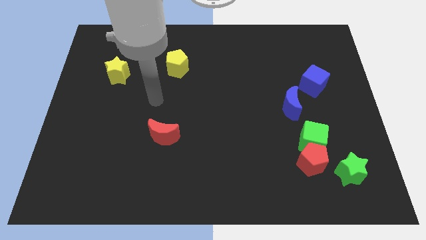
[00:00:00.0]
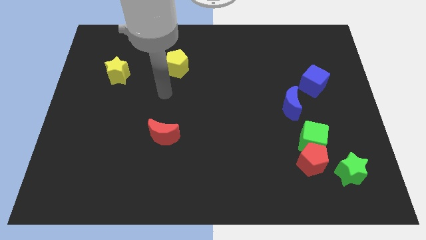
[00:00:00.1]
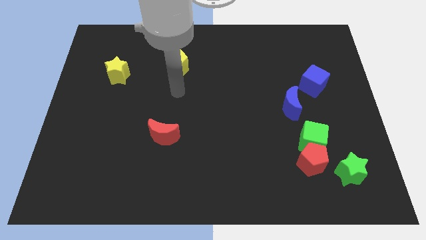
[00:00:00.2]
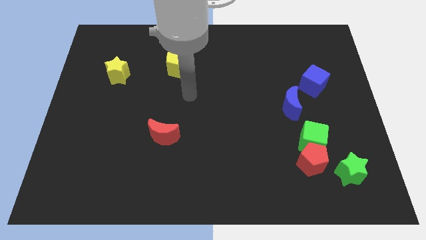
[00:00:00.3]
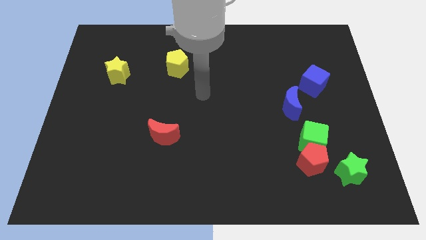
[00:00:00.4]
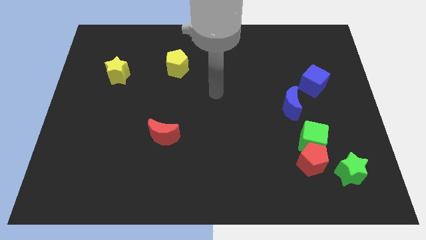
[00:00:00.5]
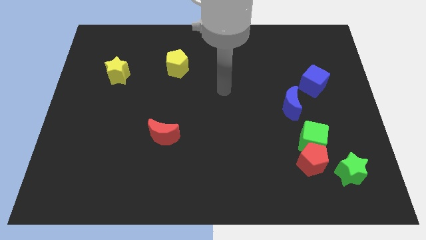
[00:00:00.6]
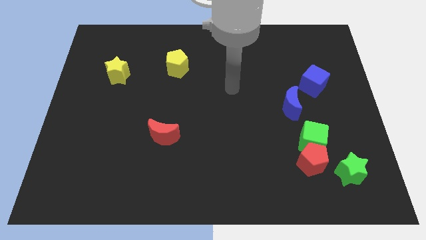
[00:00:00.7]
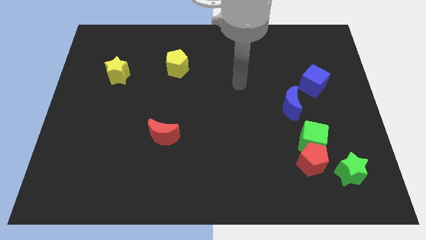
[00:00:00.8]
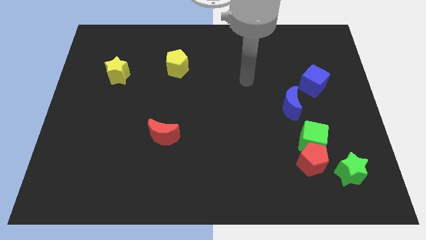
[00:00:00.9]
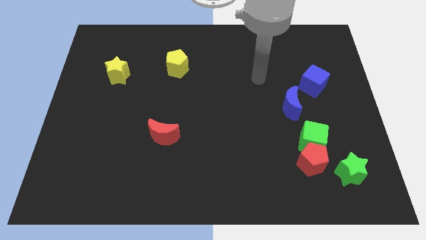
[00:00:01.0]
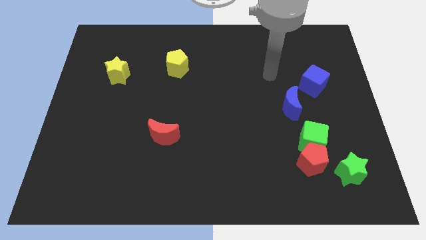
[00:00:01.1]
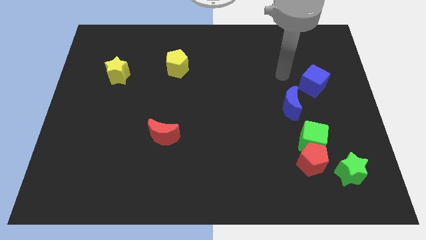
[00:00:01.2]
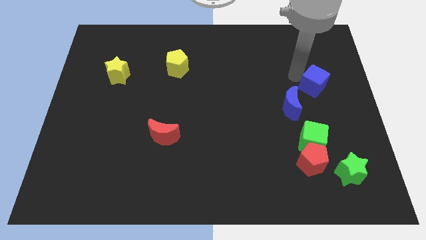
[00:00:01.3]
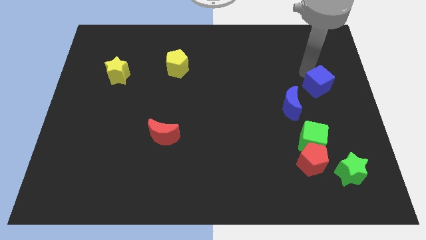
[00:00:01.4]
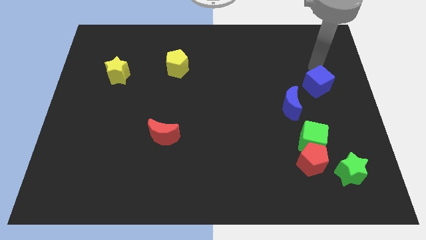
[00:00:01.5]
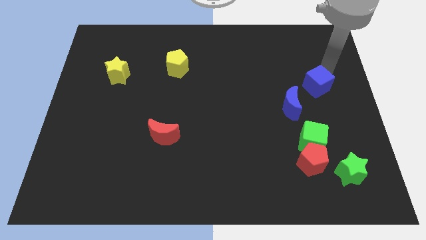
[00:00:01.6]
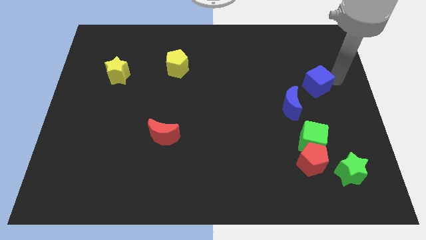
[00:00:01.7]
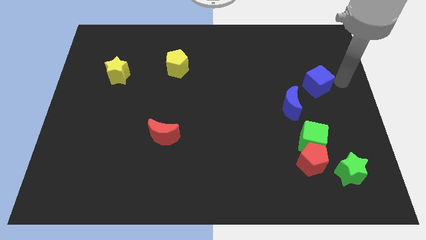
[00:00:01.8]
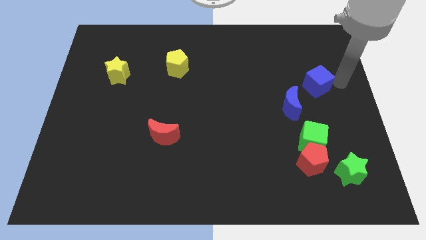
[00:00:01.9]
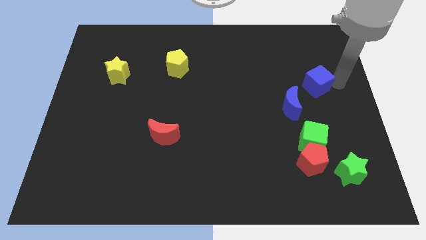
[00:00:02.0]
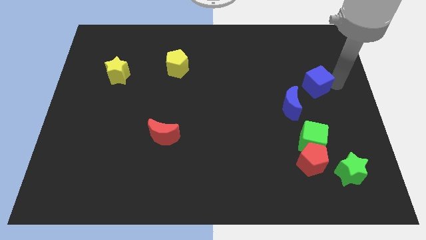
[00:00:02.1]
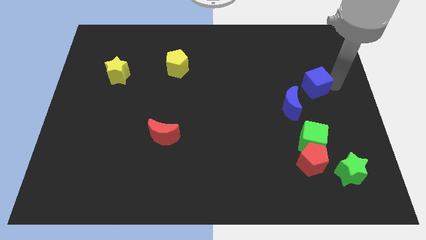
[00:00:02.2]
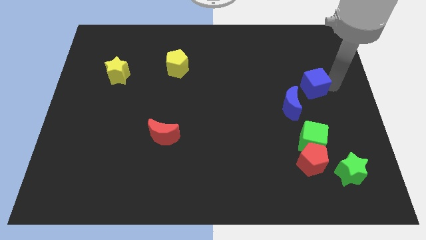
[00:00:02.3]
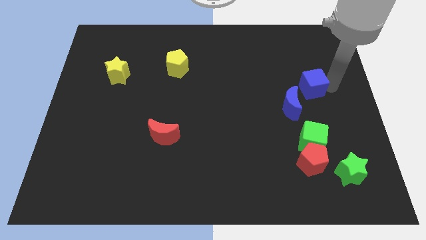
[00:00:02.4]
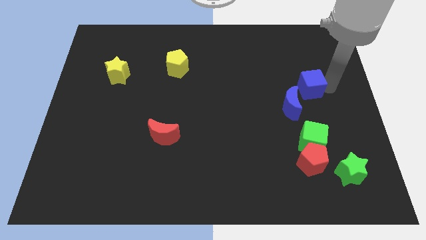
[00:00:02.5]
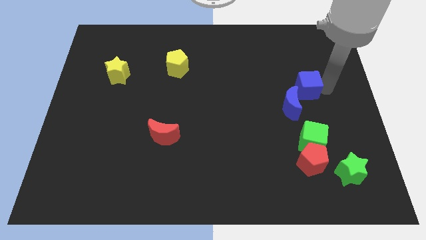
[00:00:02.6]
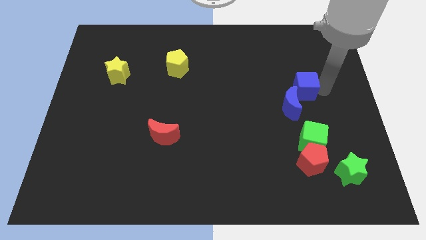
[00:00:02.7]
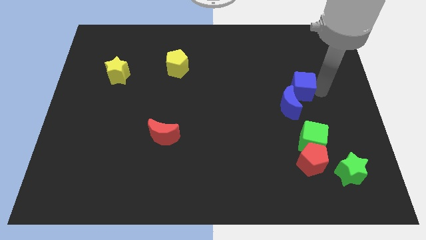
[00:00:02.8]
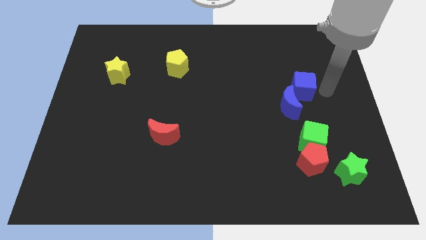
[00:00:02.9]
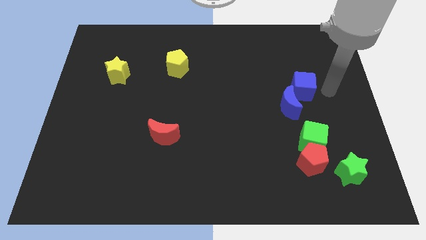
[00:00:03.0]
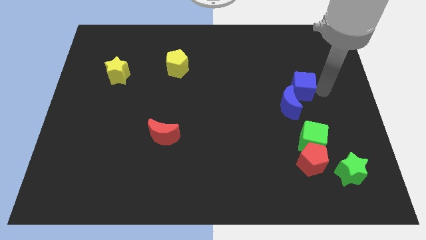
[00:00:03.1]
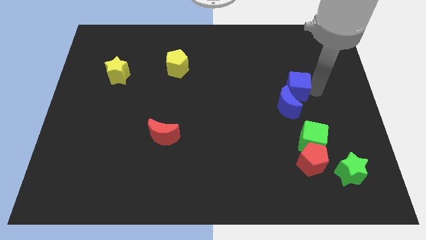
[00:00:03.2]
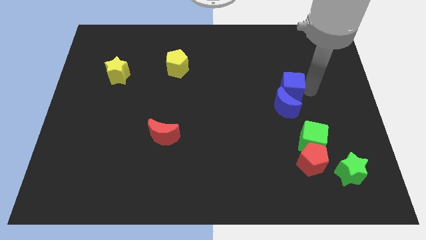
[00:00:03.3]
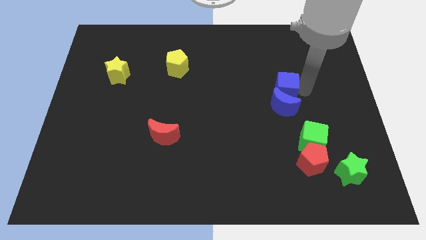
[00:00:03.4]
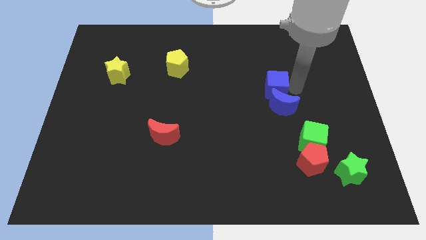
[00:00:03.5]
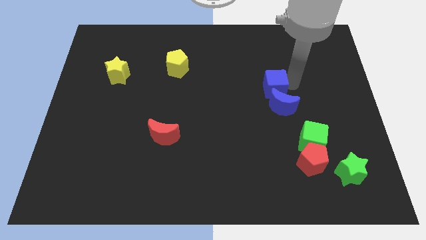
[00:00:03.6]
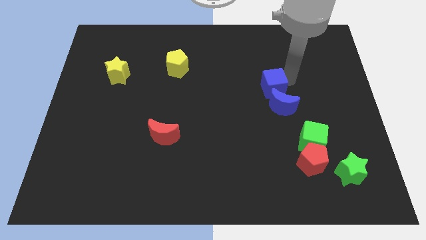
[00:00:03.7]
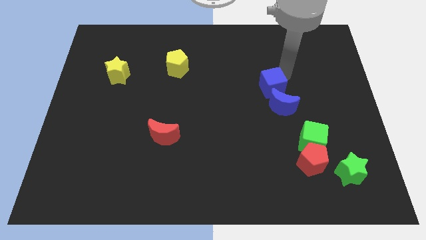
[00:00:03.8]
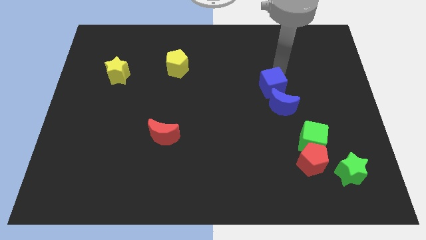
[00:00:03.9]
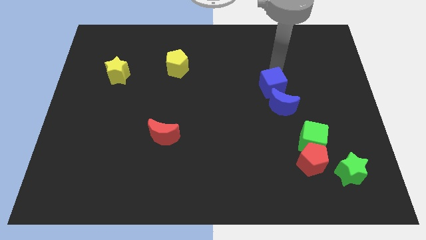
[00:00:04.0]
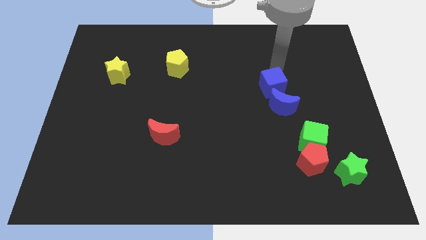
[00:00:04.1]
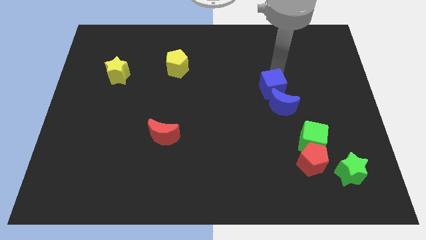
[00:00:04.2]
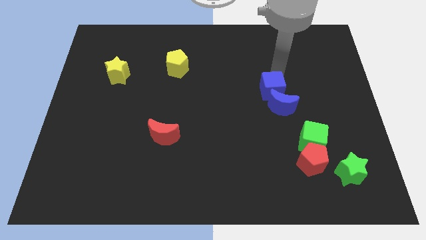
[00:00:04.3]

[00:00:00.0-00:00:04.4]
slide the blue cube a bit downwards and left diagonally

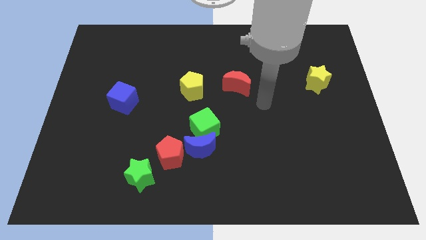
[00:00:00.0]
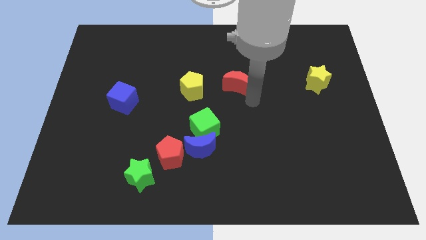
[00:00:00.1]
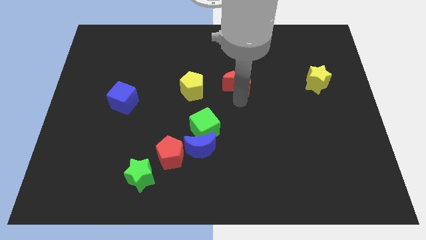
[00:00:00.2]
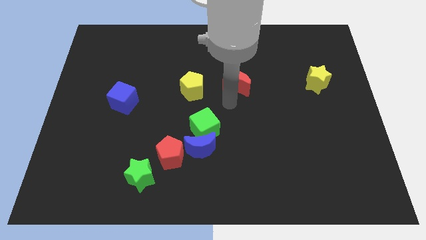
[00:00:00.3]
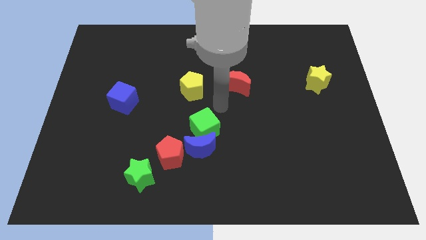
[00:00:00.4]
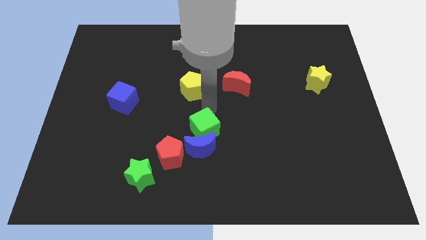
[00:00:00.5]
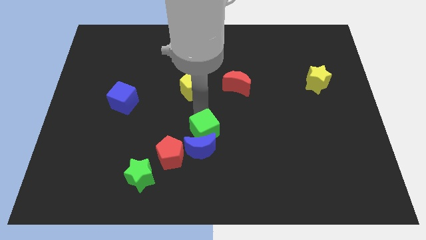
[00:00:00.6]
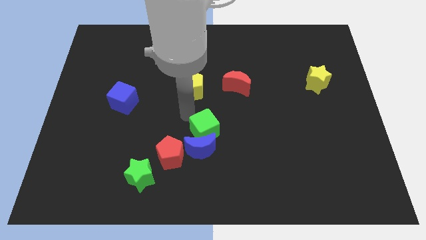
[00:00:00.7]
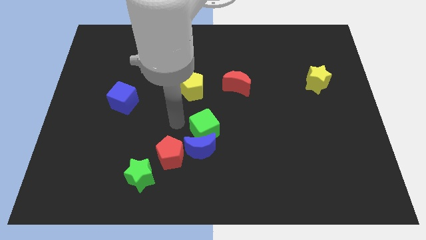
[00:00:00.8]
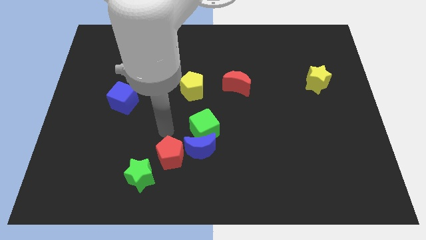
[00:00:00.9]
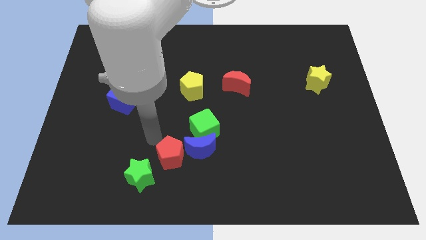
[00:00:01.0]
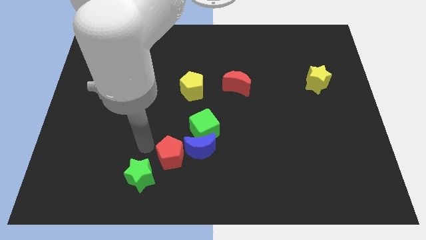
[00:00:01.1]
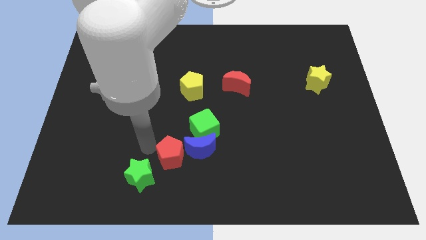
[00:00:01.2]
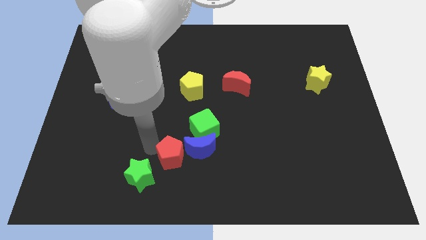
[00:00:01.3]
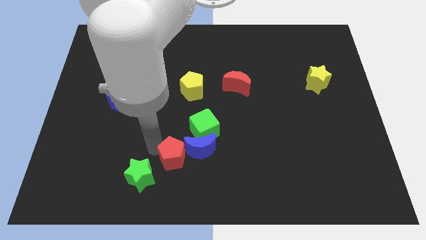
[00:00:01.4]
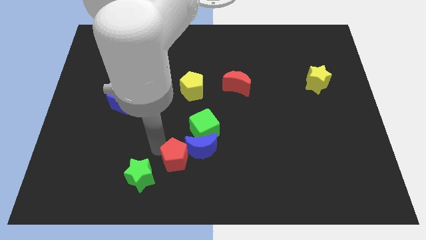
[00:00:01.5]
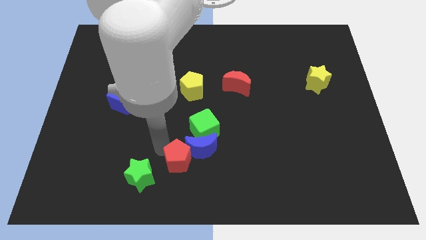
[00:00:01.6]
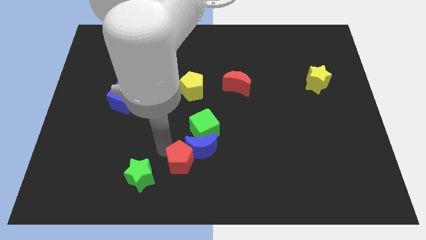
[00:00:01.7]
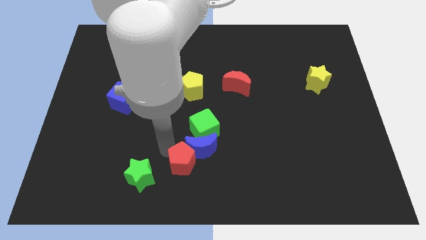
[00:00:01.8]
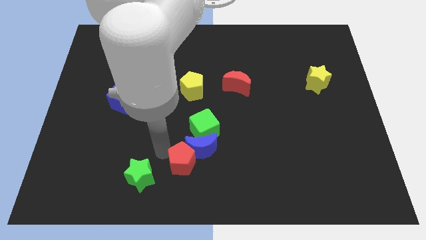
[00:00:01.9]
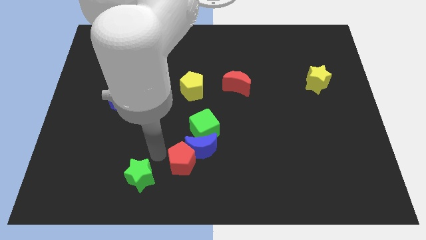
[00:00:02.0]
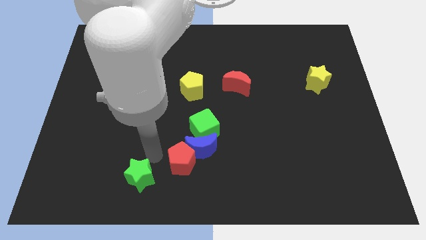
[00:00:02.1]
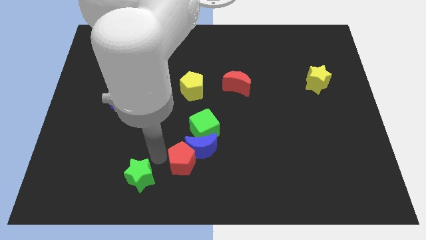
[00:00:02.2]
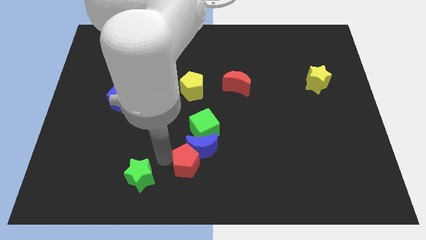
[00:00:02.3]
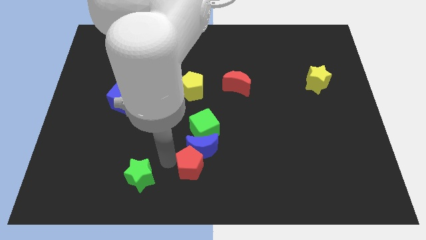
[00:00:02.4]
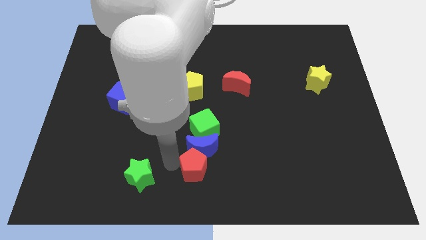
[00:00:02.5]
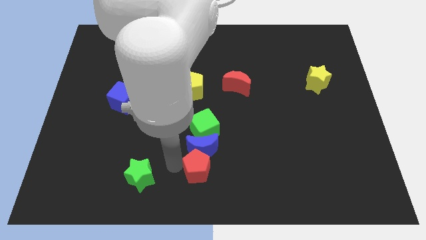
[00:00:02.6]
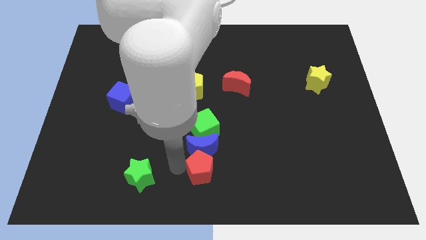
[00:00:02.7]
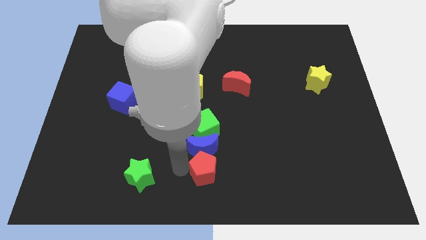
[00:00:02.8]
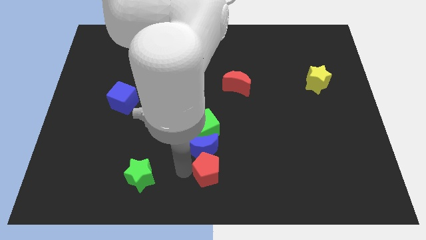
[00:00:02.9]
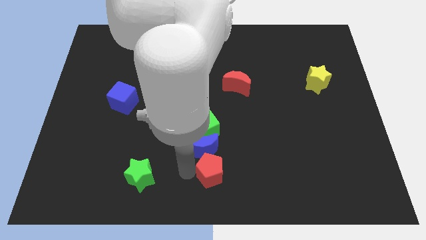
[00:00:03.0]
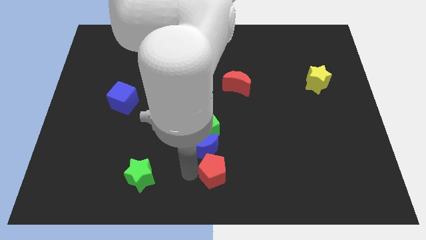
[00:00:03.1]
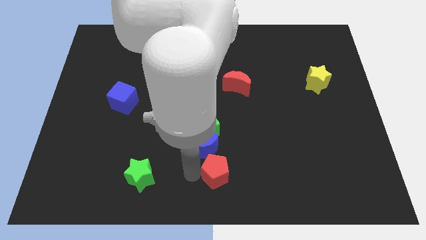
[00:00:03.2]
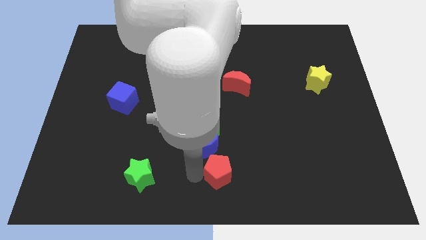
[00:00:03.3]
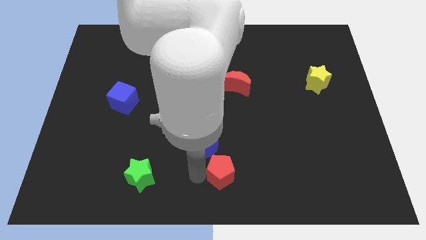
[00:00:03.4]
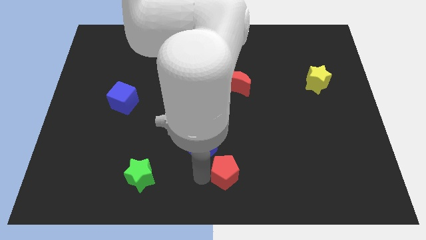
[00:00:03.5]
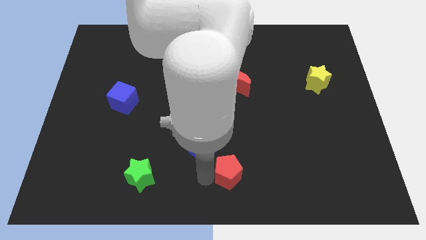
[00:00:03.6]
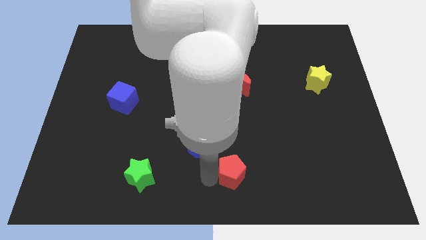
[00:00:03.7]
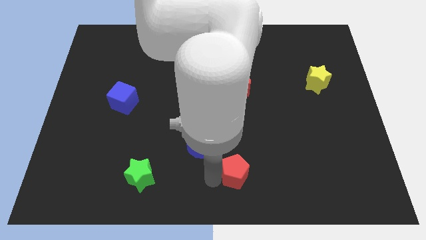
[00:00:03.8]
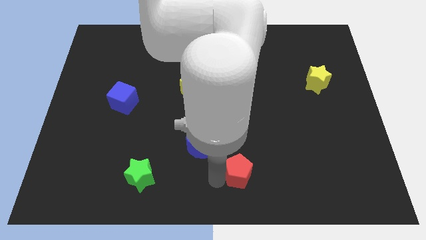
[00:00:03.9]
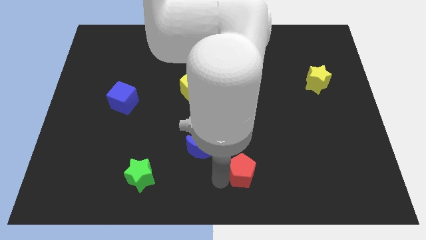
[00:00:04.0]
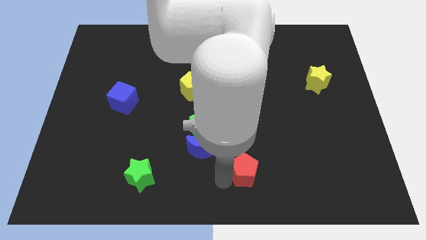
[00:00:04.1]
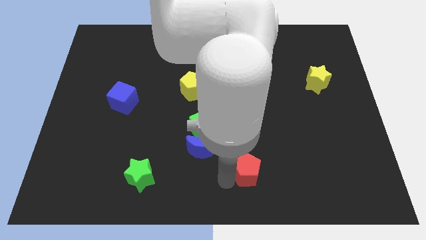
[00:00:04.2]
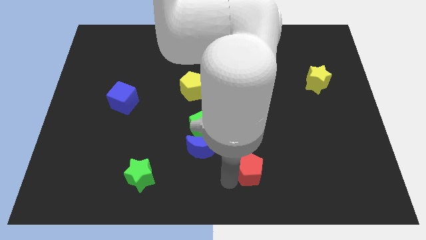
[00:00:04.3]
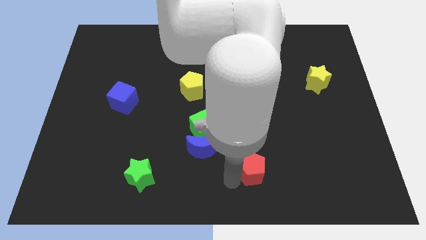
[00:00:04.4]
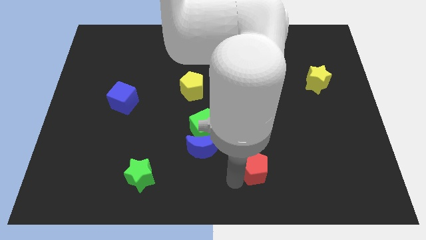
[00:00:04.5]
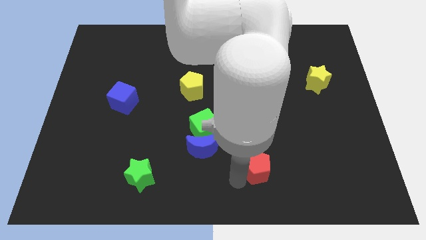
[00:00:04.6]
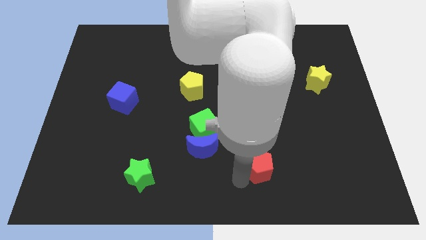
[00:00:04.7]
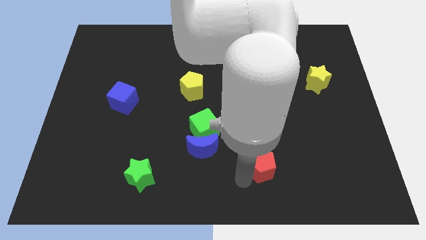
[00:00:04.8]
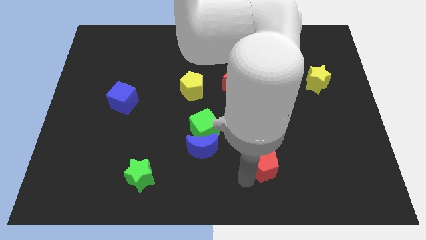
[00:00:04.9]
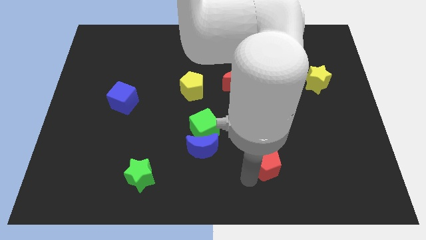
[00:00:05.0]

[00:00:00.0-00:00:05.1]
move the red pentagon to the right
